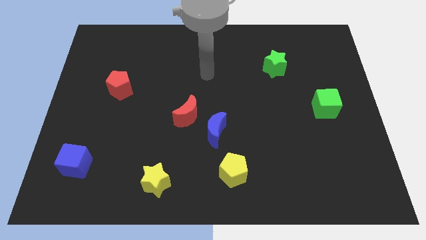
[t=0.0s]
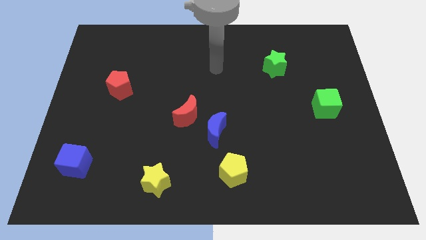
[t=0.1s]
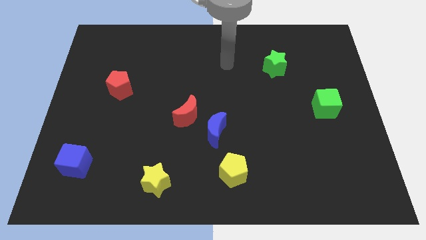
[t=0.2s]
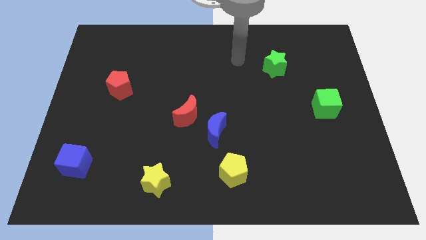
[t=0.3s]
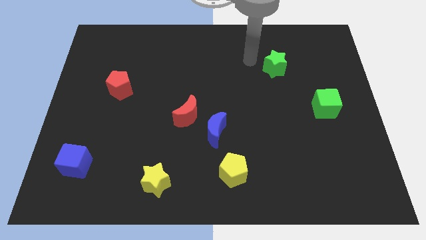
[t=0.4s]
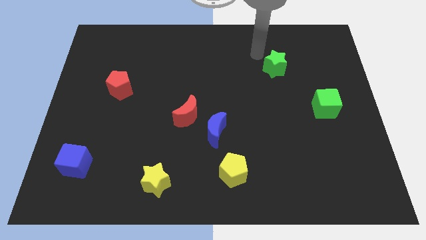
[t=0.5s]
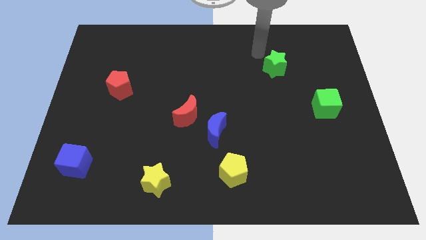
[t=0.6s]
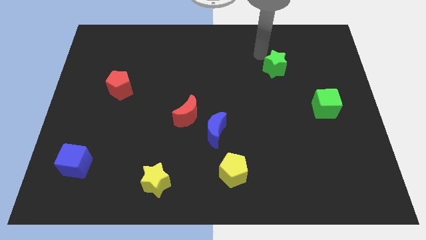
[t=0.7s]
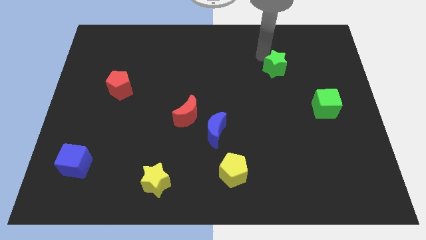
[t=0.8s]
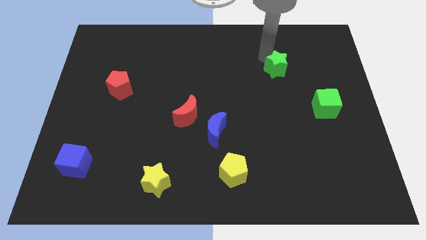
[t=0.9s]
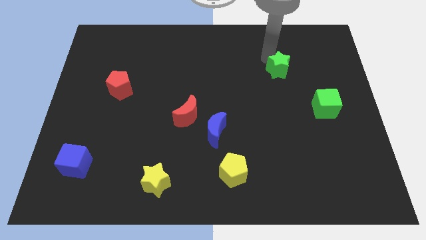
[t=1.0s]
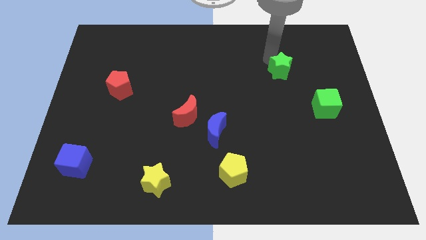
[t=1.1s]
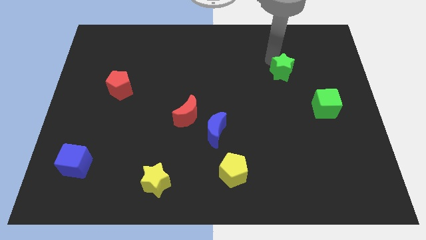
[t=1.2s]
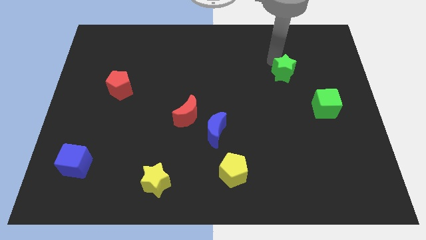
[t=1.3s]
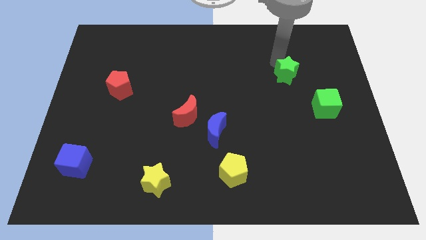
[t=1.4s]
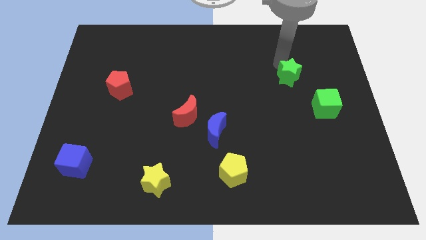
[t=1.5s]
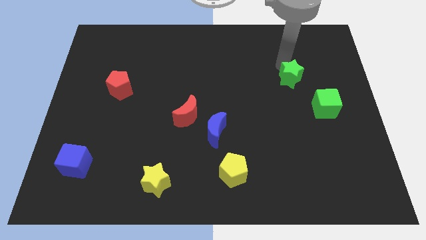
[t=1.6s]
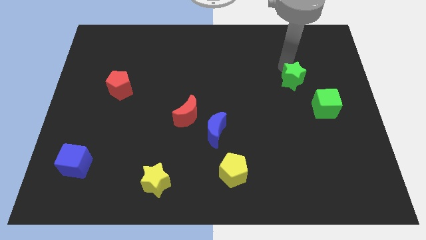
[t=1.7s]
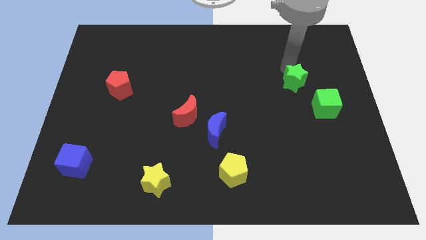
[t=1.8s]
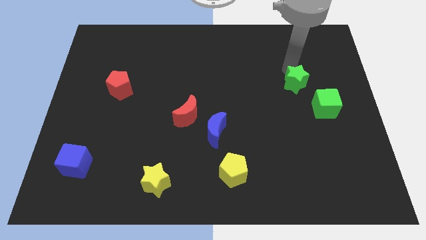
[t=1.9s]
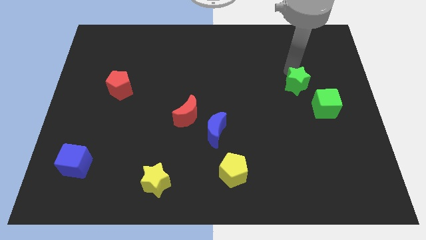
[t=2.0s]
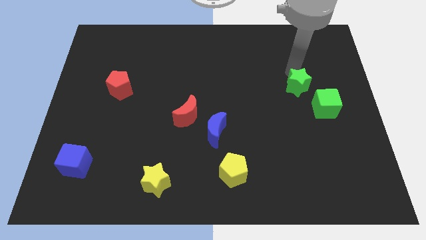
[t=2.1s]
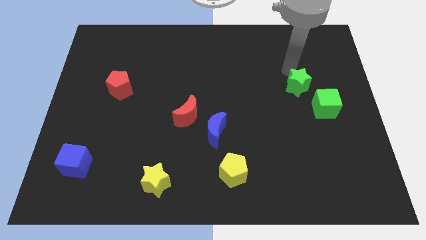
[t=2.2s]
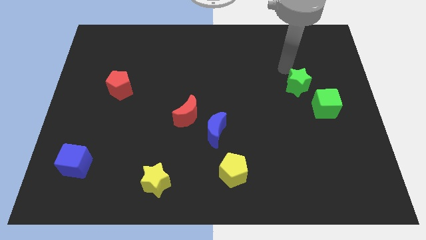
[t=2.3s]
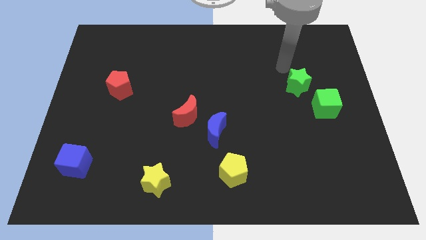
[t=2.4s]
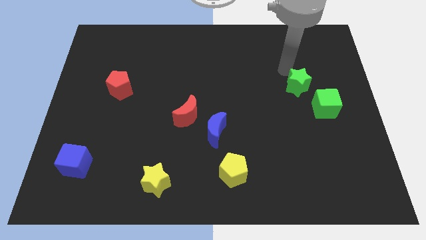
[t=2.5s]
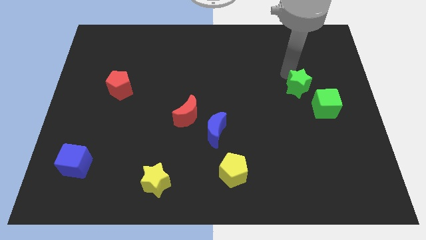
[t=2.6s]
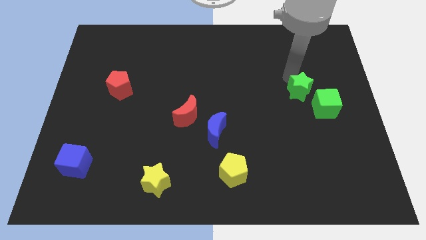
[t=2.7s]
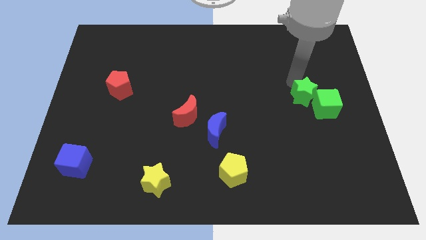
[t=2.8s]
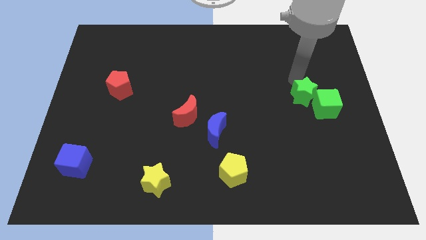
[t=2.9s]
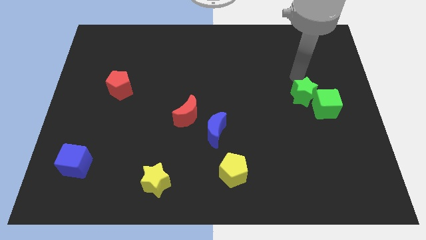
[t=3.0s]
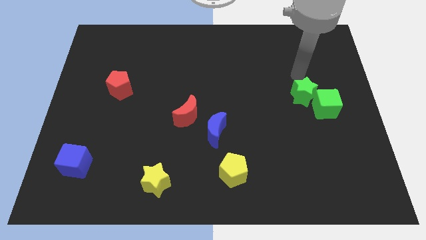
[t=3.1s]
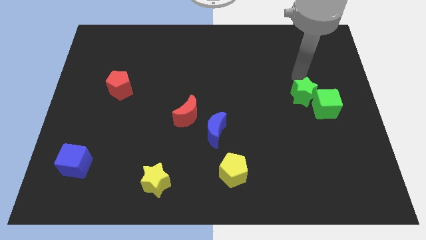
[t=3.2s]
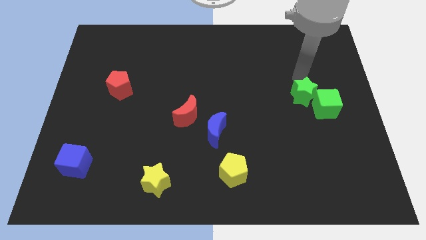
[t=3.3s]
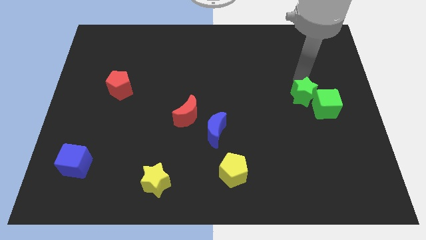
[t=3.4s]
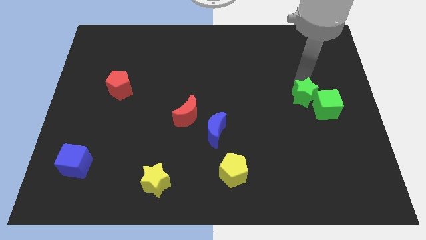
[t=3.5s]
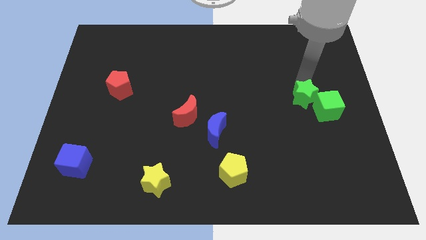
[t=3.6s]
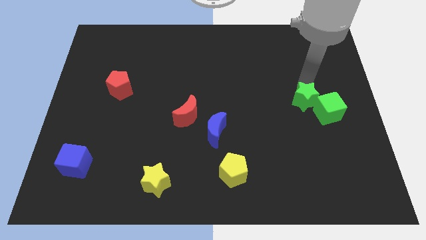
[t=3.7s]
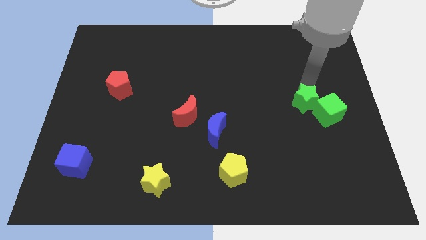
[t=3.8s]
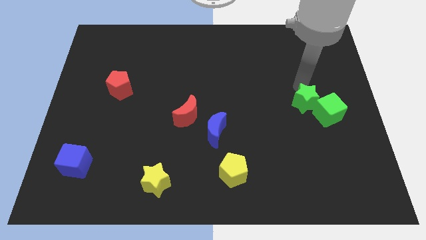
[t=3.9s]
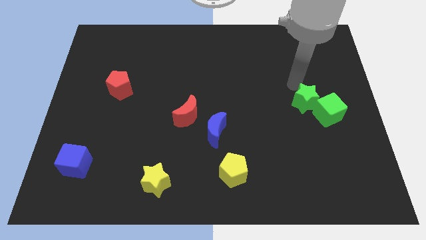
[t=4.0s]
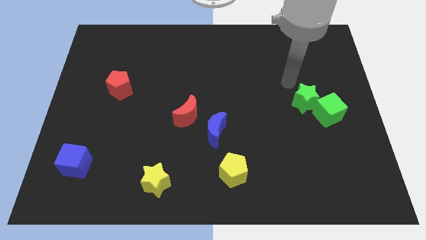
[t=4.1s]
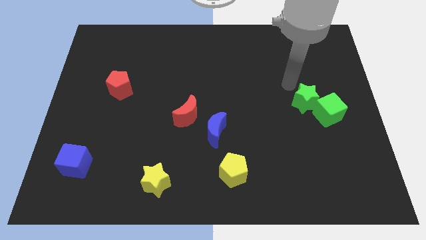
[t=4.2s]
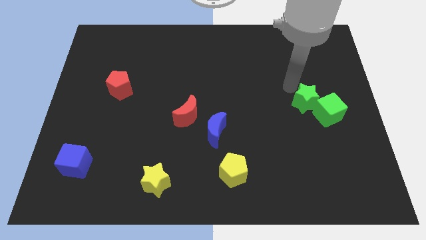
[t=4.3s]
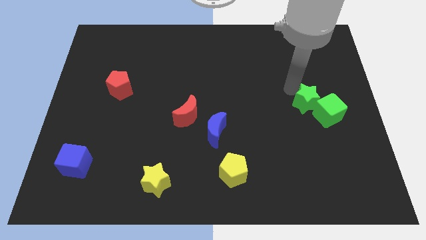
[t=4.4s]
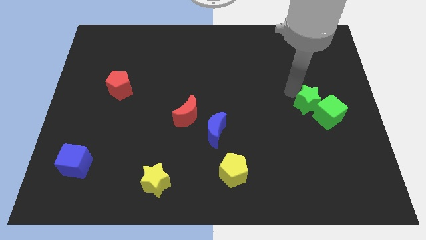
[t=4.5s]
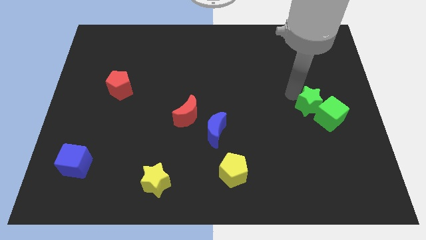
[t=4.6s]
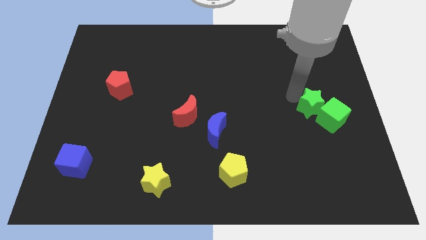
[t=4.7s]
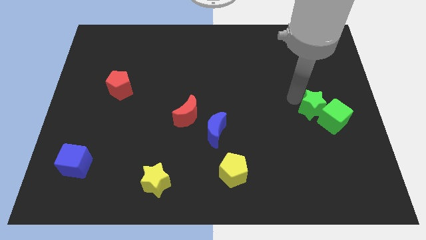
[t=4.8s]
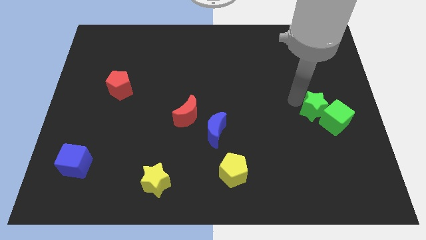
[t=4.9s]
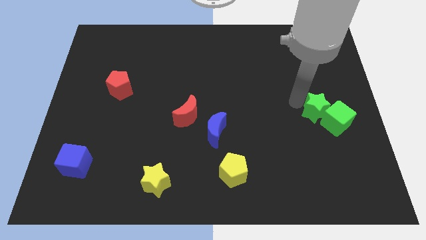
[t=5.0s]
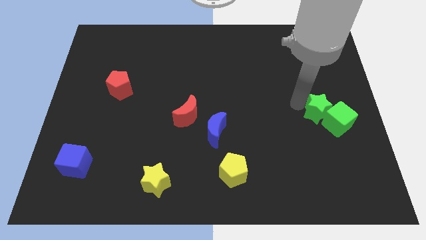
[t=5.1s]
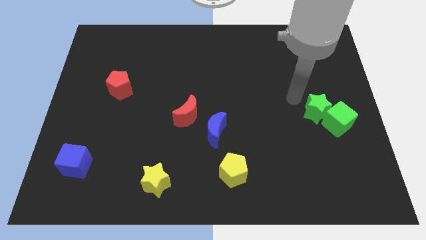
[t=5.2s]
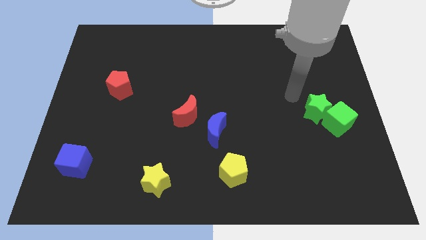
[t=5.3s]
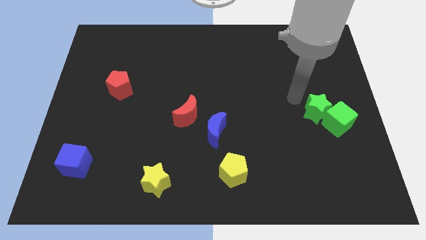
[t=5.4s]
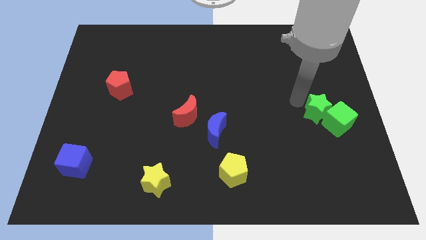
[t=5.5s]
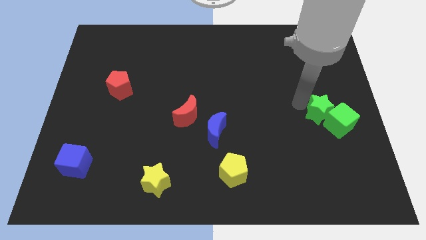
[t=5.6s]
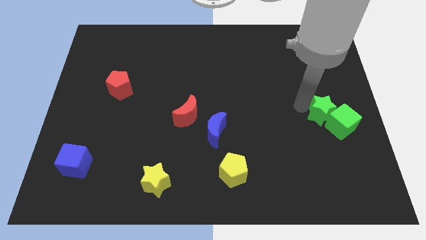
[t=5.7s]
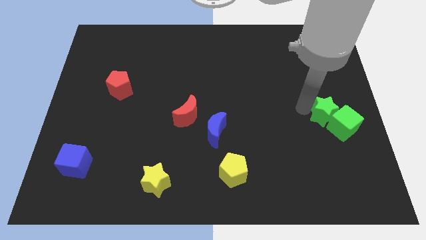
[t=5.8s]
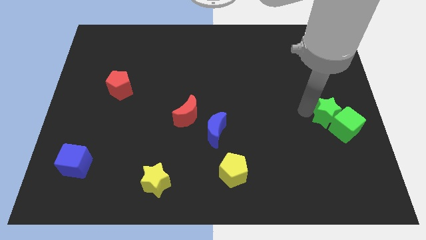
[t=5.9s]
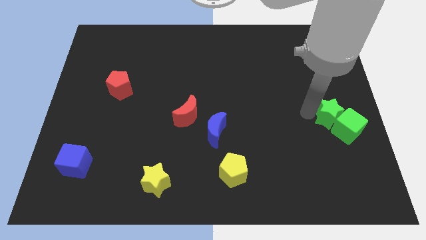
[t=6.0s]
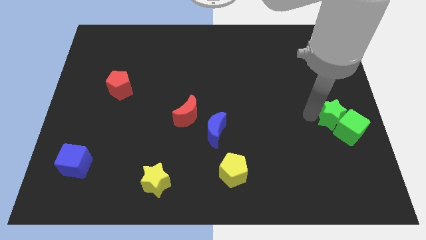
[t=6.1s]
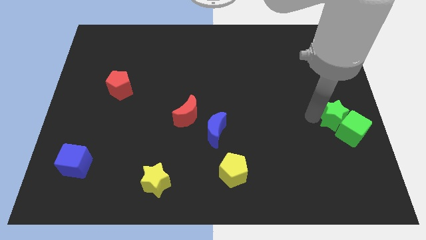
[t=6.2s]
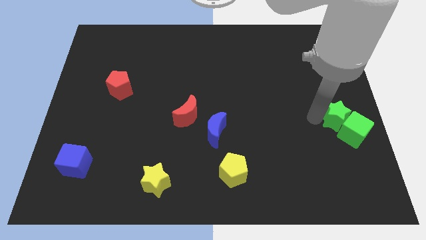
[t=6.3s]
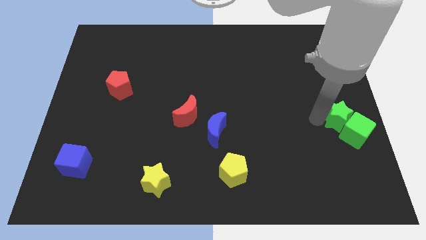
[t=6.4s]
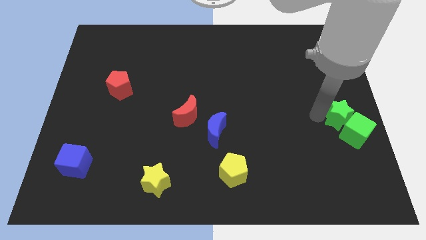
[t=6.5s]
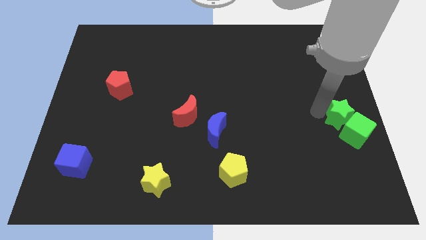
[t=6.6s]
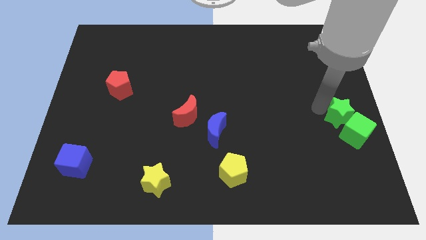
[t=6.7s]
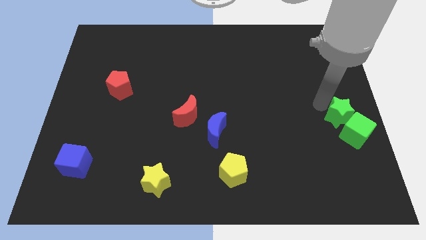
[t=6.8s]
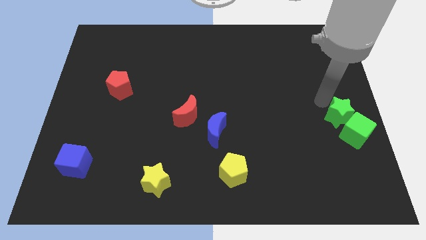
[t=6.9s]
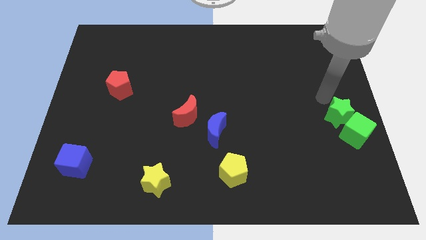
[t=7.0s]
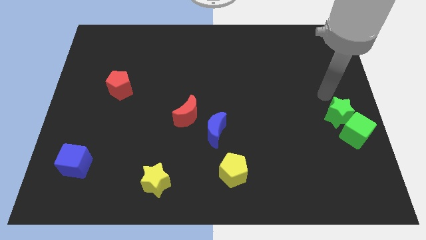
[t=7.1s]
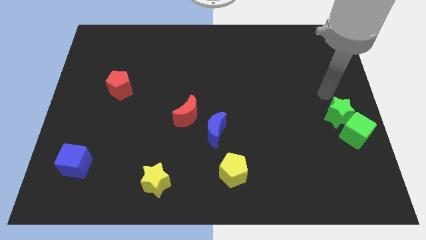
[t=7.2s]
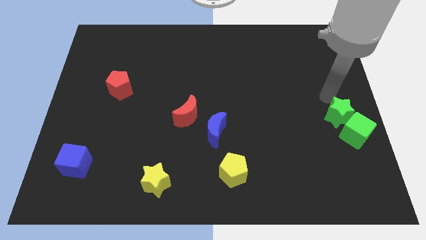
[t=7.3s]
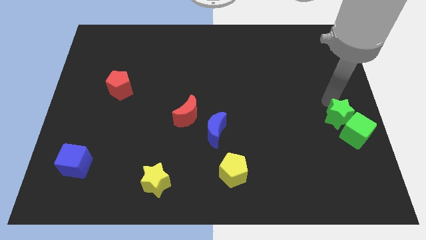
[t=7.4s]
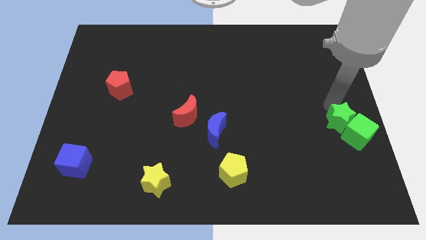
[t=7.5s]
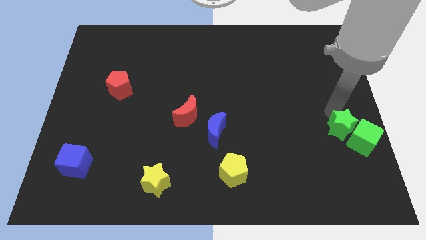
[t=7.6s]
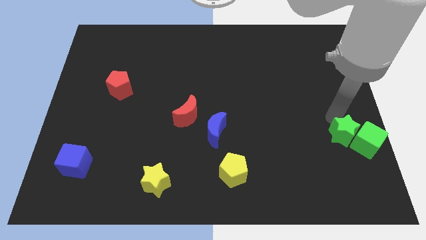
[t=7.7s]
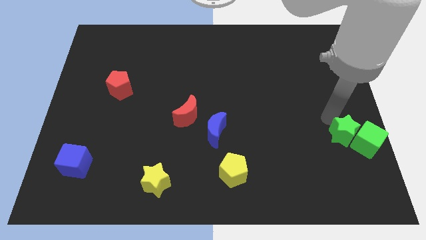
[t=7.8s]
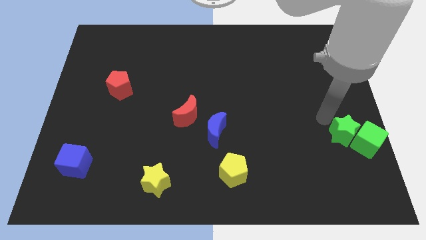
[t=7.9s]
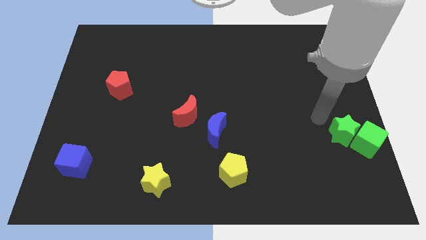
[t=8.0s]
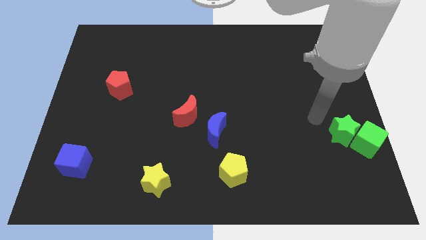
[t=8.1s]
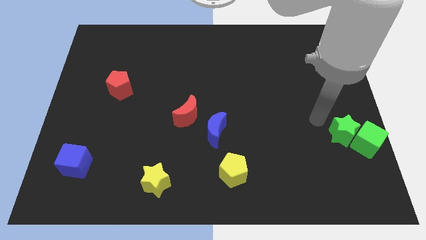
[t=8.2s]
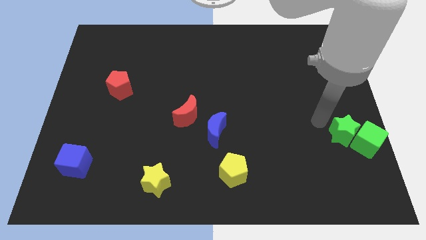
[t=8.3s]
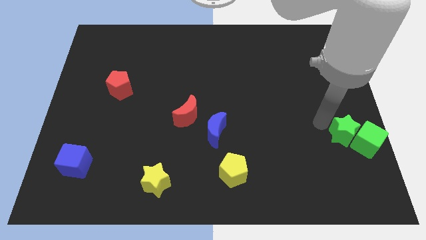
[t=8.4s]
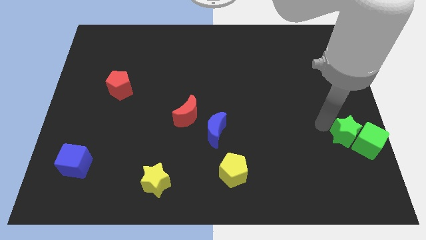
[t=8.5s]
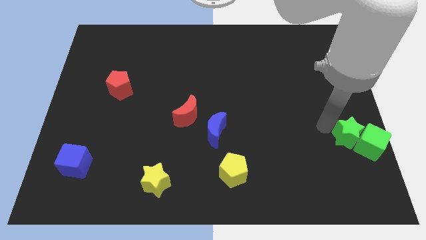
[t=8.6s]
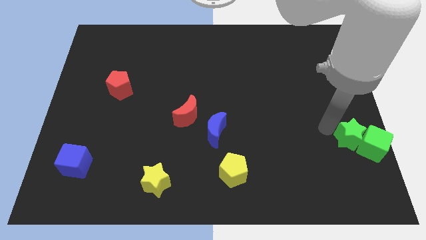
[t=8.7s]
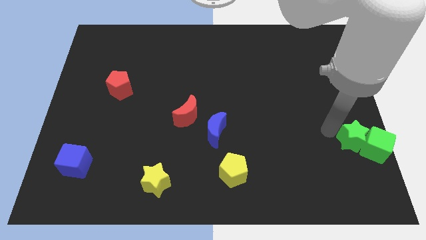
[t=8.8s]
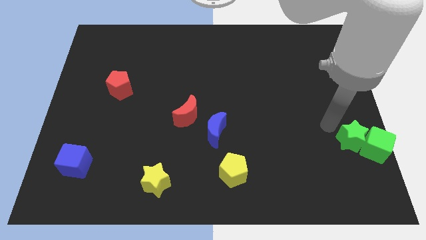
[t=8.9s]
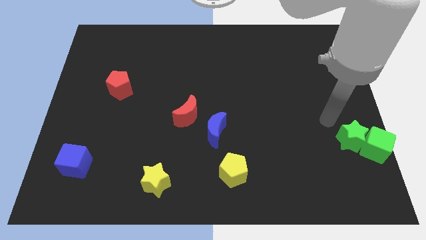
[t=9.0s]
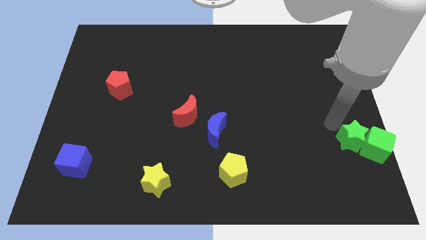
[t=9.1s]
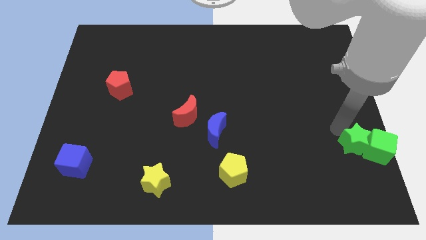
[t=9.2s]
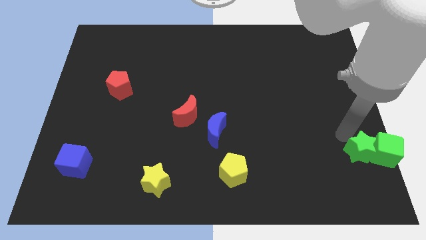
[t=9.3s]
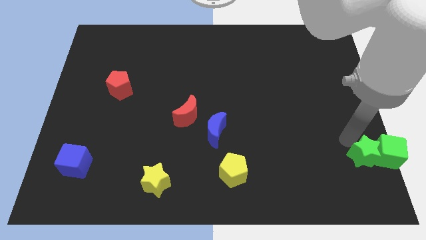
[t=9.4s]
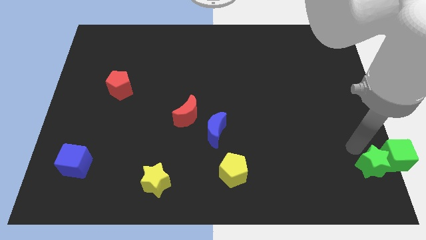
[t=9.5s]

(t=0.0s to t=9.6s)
move the green star to the lower right corner
